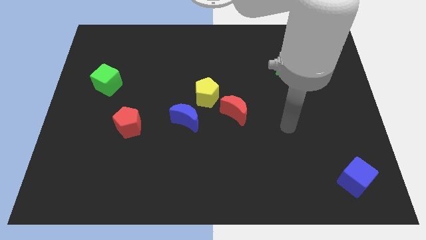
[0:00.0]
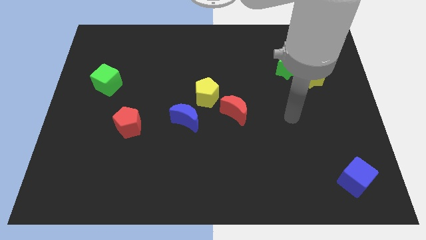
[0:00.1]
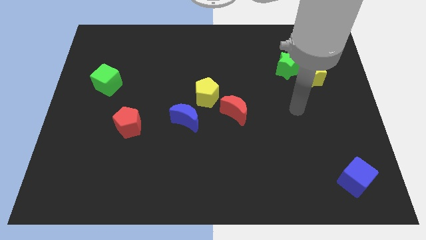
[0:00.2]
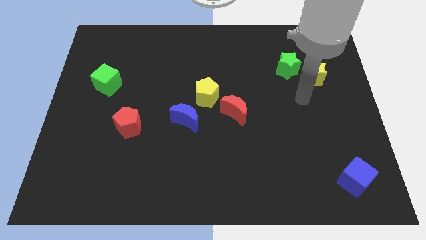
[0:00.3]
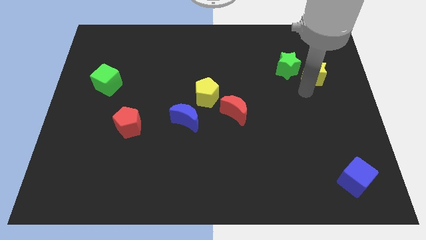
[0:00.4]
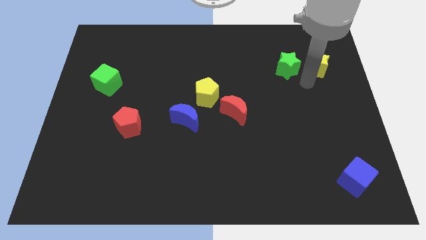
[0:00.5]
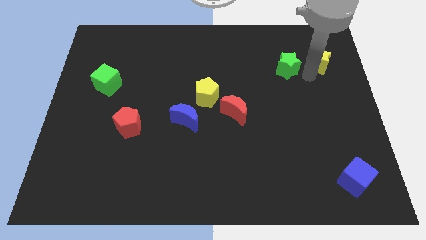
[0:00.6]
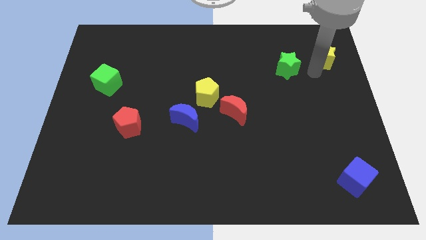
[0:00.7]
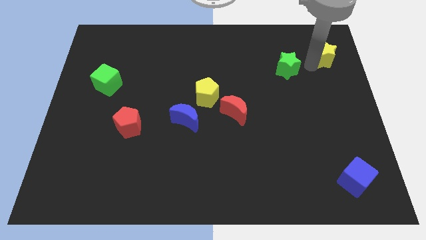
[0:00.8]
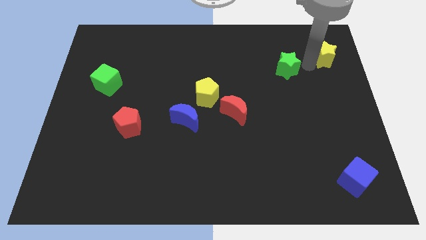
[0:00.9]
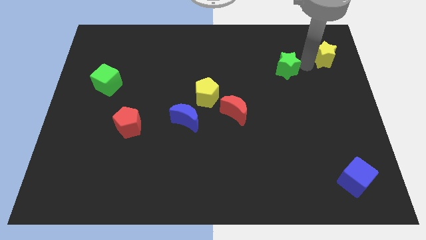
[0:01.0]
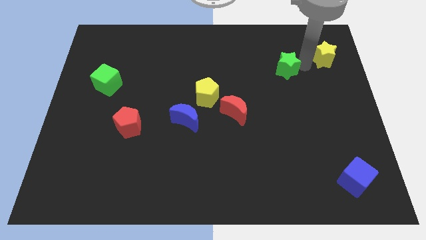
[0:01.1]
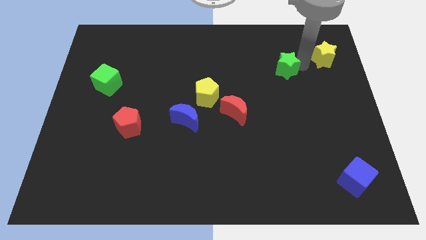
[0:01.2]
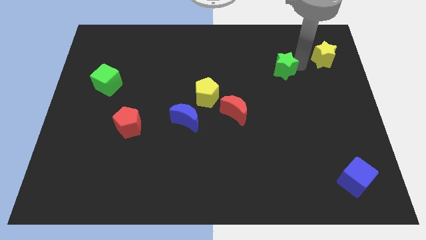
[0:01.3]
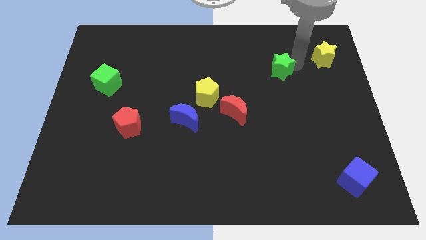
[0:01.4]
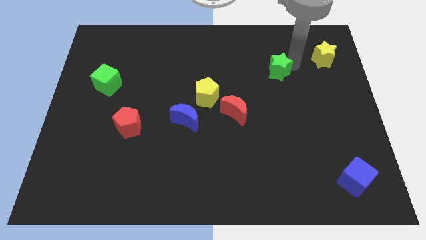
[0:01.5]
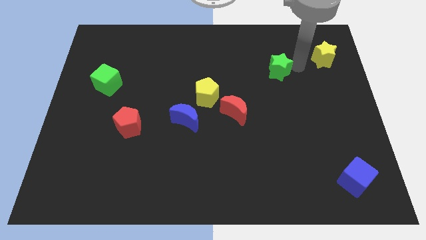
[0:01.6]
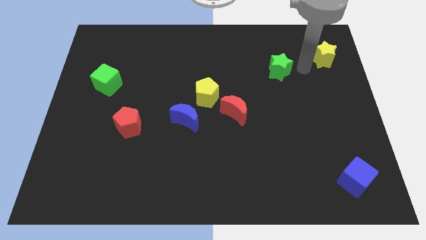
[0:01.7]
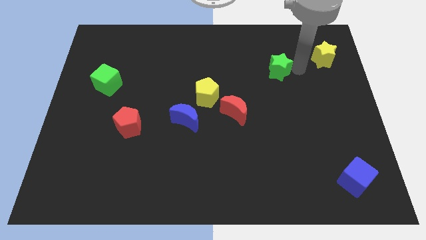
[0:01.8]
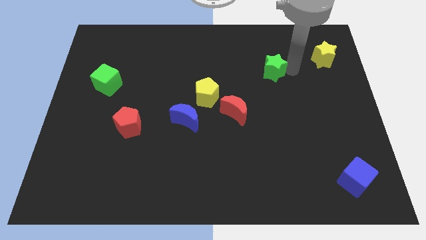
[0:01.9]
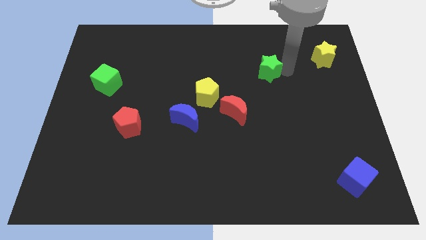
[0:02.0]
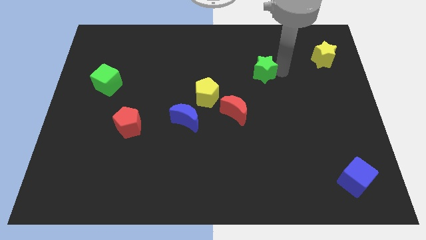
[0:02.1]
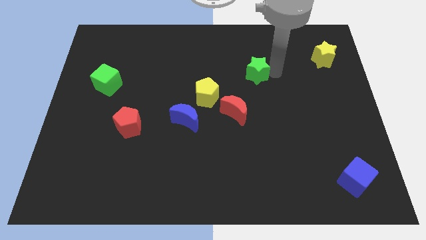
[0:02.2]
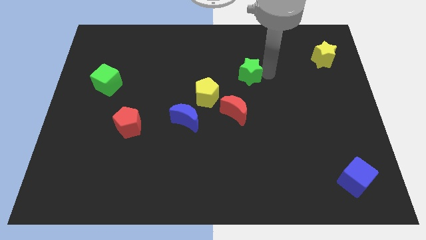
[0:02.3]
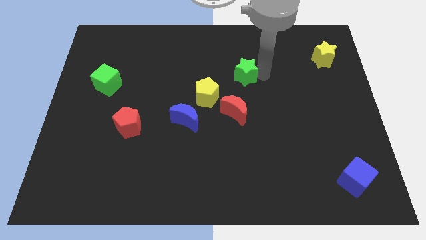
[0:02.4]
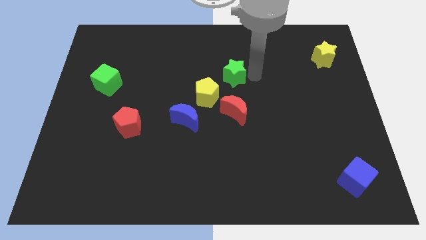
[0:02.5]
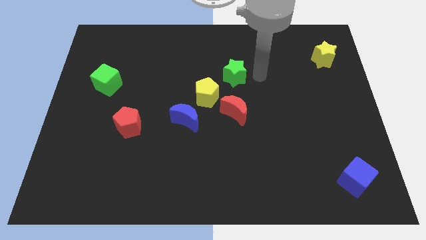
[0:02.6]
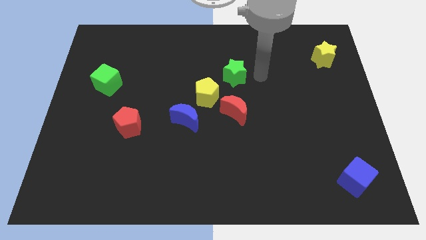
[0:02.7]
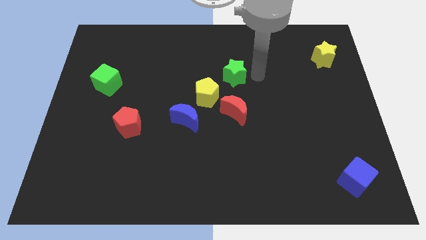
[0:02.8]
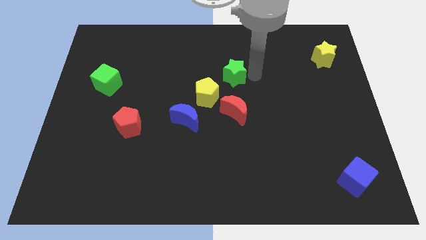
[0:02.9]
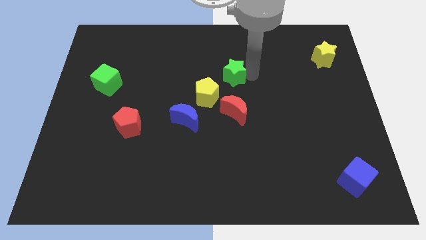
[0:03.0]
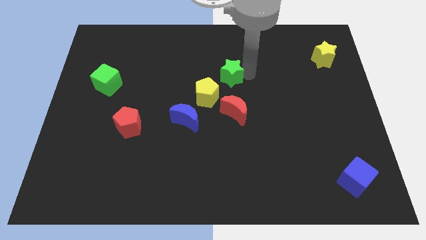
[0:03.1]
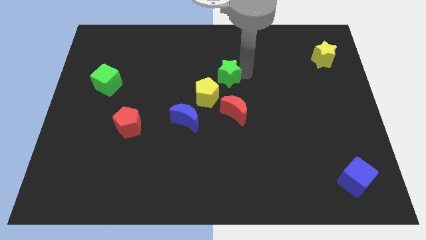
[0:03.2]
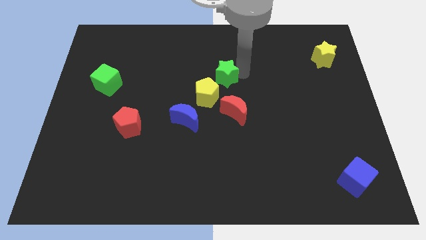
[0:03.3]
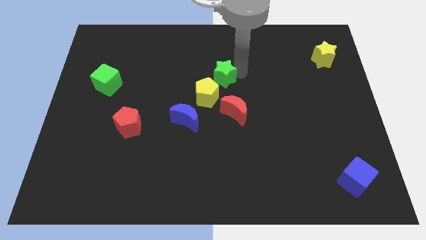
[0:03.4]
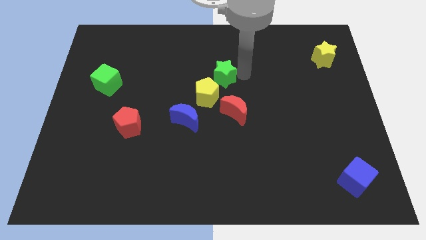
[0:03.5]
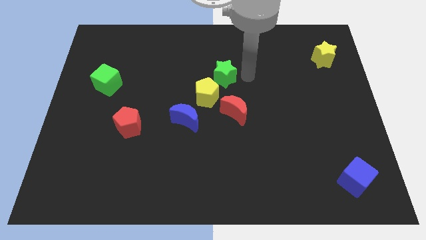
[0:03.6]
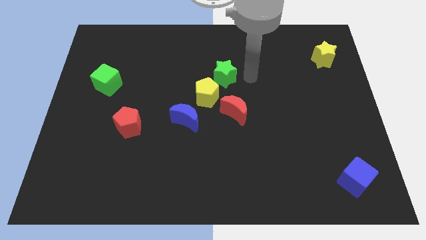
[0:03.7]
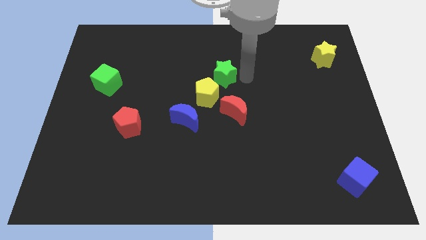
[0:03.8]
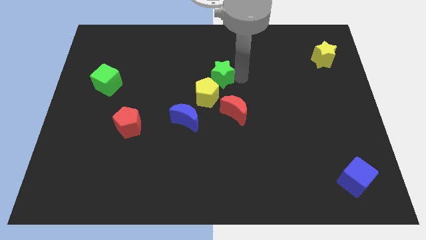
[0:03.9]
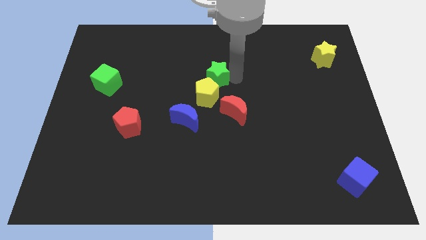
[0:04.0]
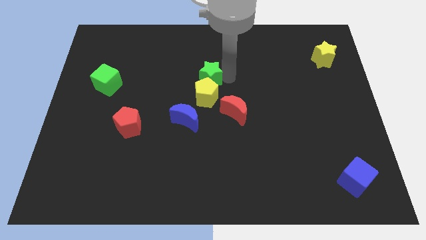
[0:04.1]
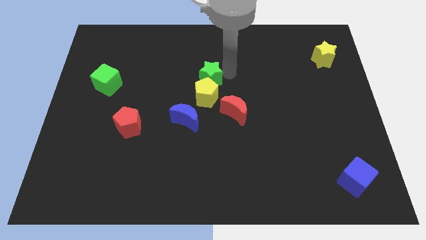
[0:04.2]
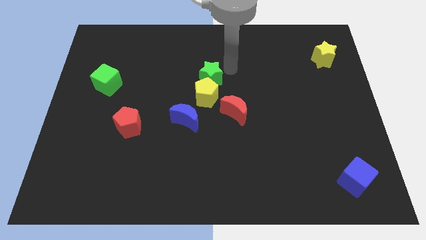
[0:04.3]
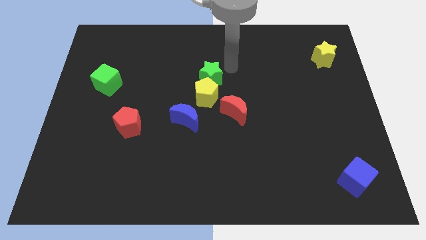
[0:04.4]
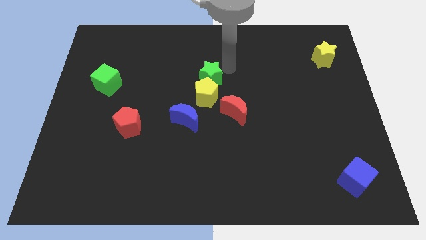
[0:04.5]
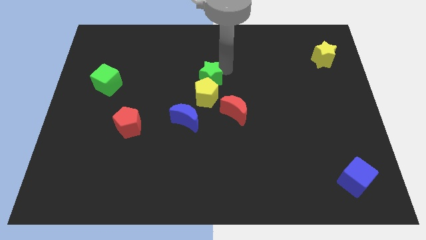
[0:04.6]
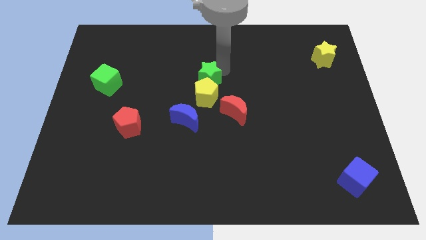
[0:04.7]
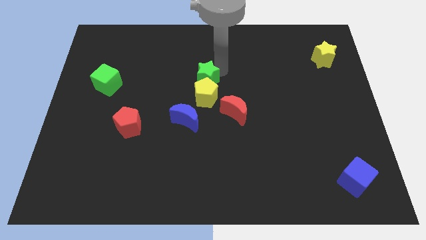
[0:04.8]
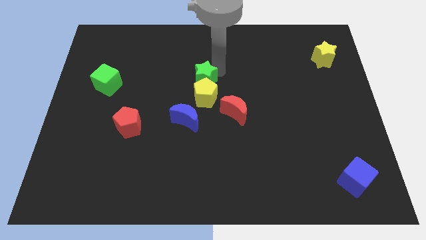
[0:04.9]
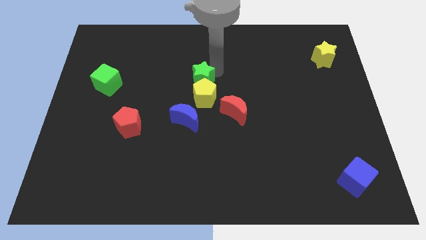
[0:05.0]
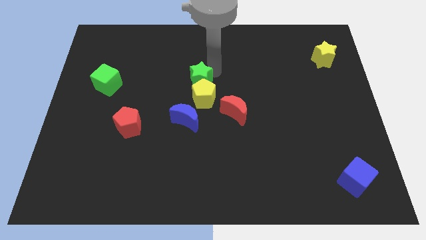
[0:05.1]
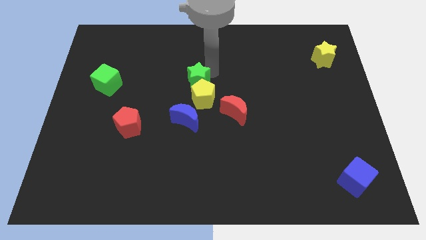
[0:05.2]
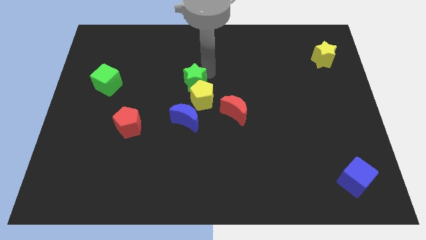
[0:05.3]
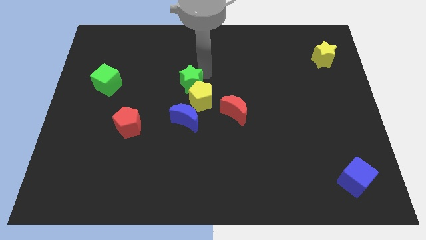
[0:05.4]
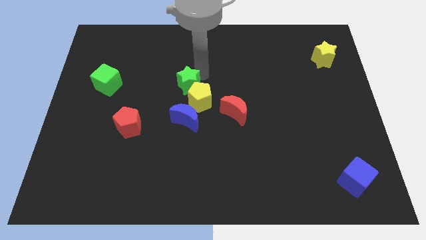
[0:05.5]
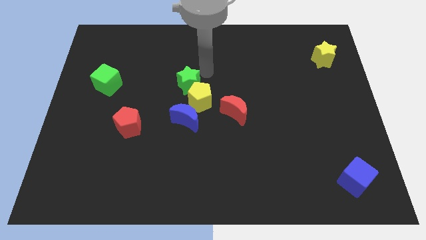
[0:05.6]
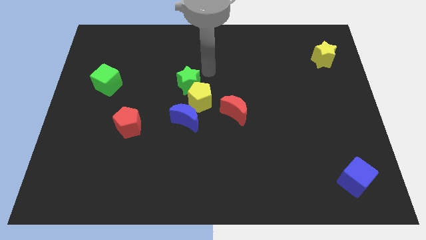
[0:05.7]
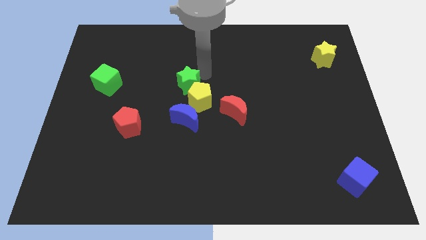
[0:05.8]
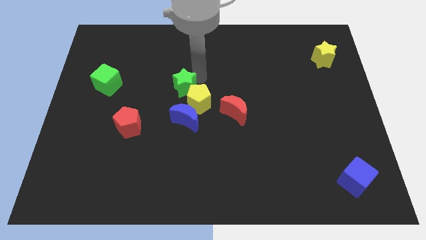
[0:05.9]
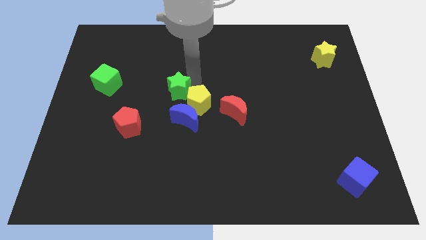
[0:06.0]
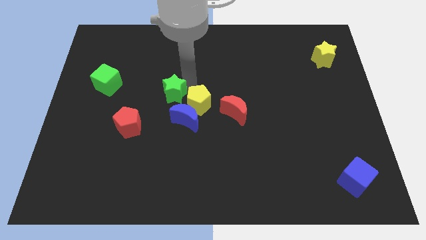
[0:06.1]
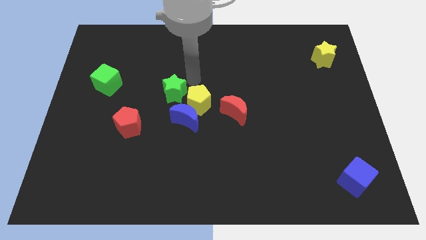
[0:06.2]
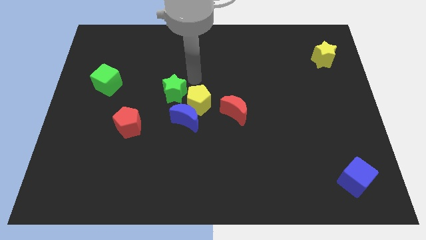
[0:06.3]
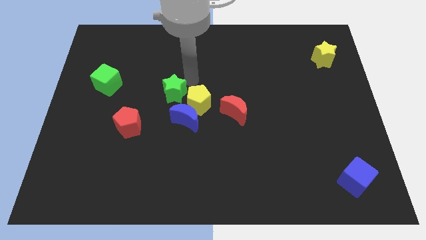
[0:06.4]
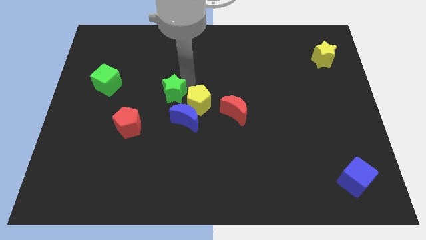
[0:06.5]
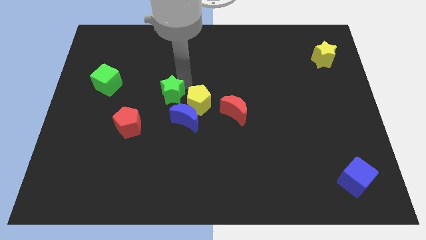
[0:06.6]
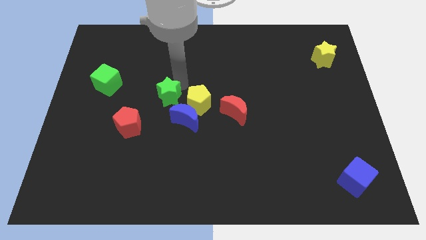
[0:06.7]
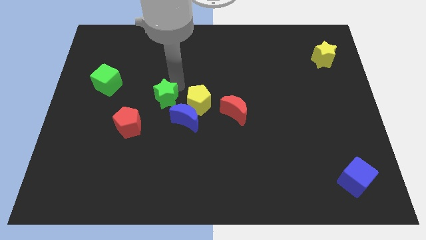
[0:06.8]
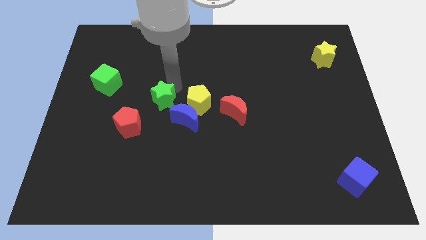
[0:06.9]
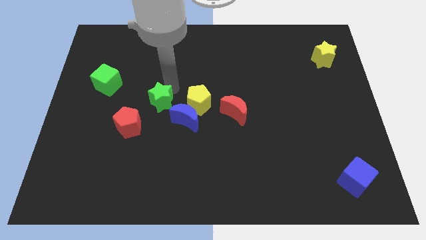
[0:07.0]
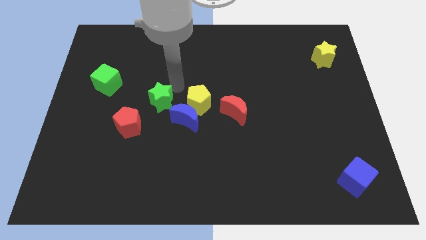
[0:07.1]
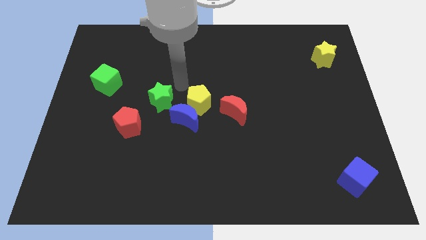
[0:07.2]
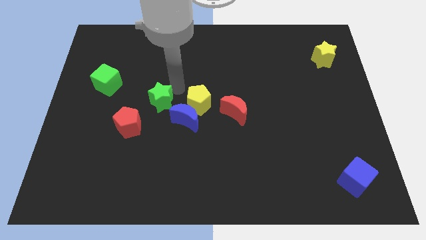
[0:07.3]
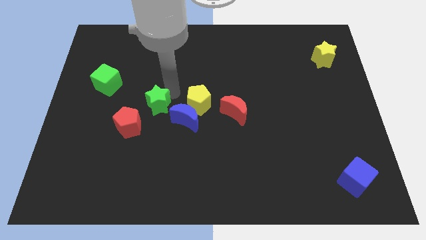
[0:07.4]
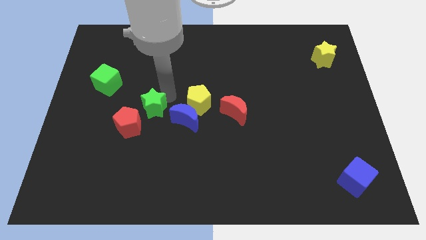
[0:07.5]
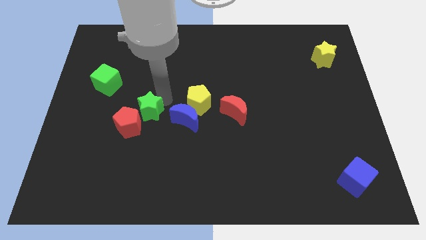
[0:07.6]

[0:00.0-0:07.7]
move the green star next to the red pentagon
